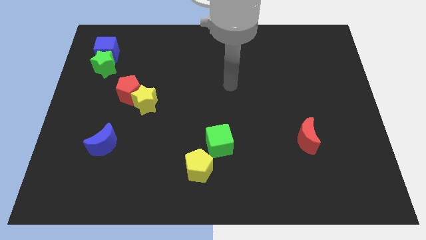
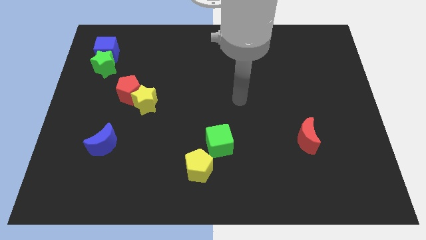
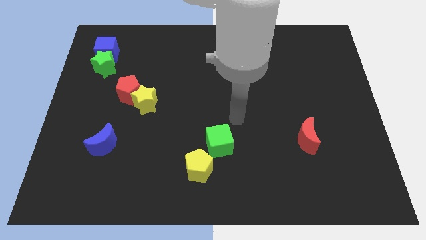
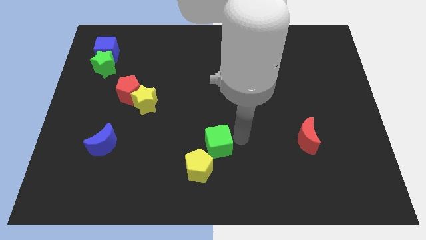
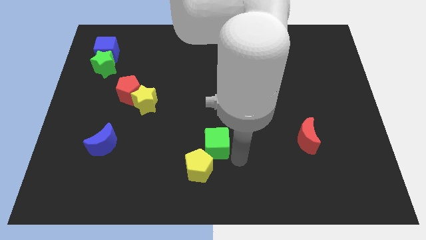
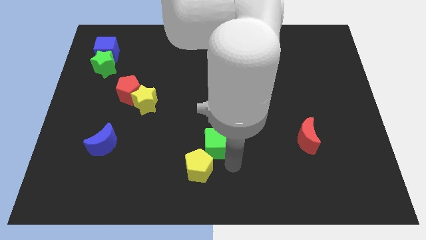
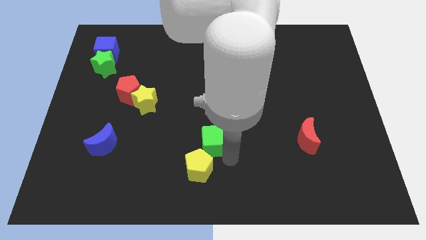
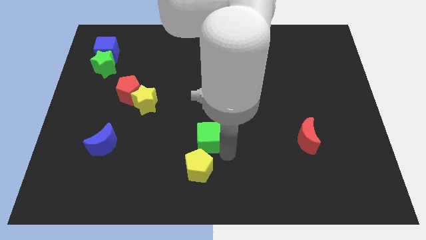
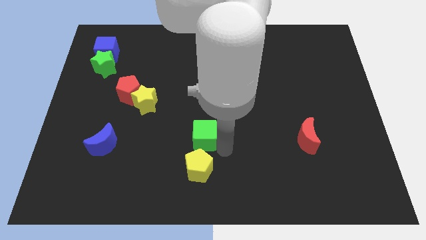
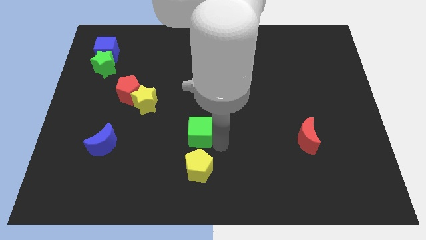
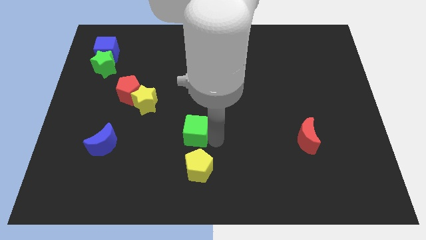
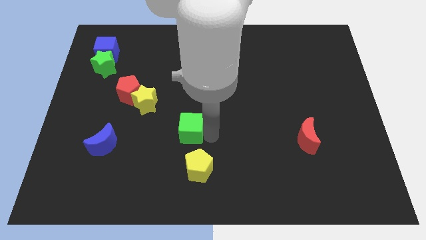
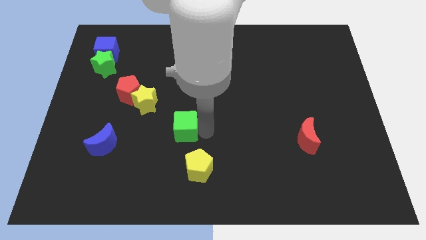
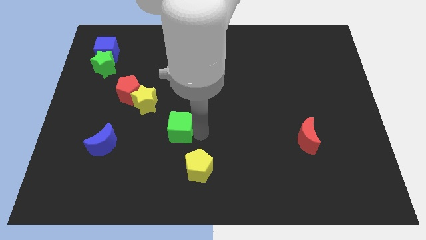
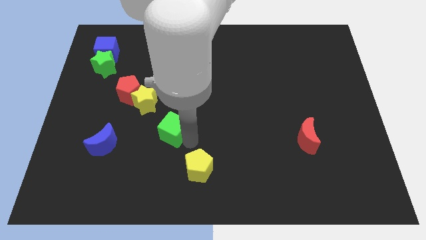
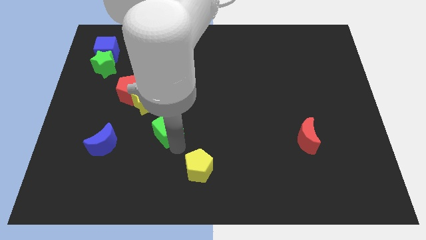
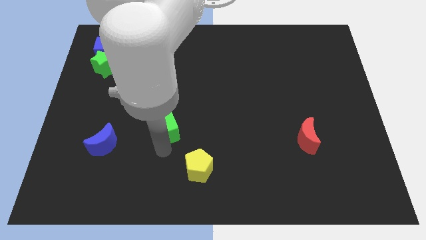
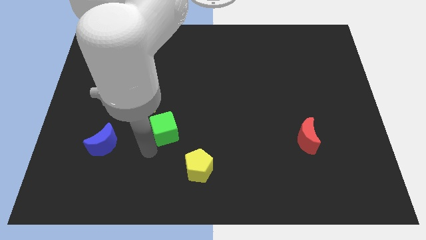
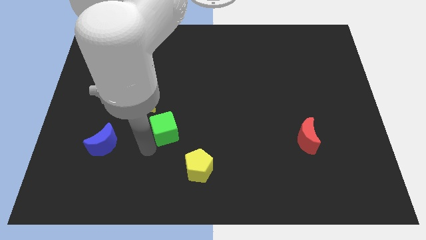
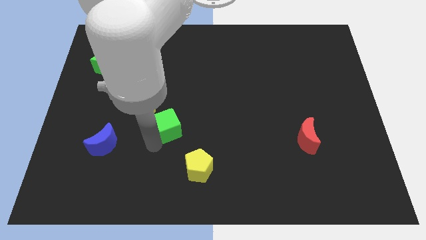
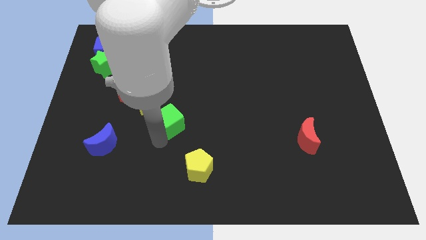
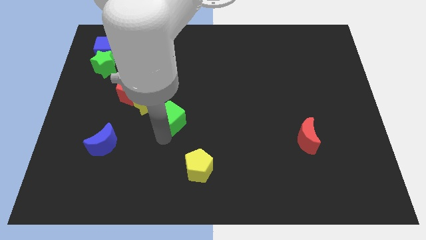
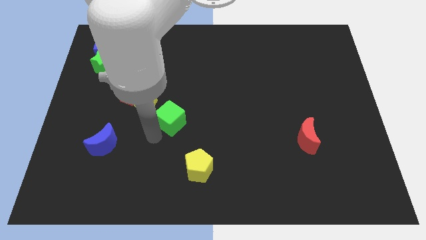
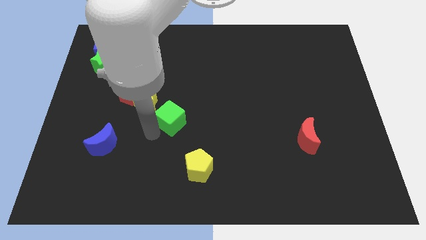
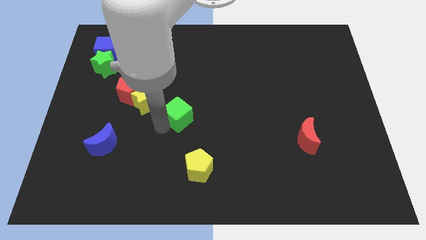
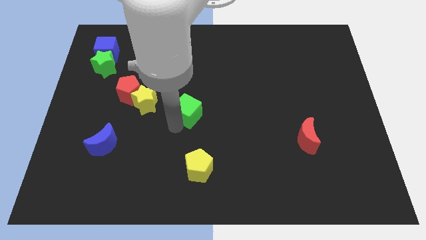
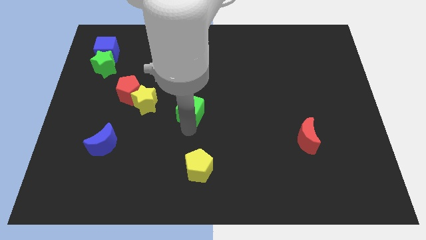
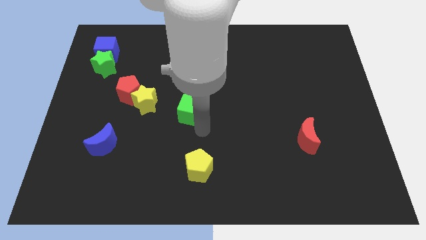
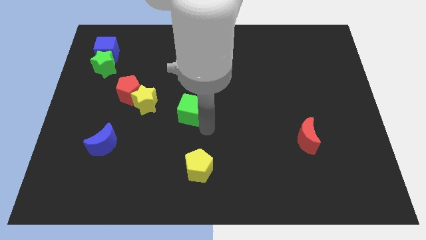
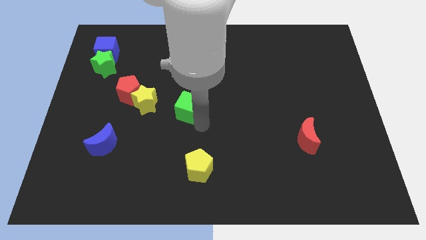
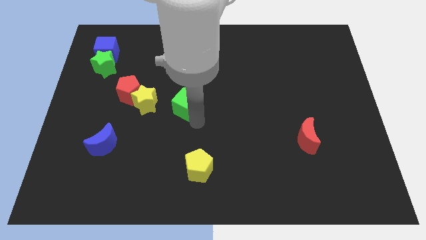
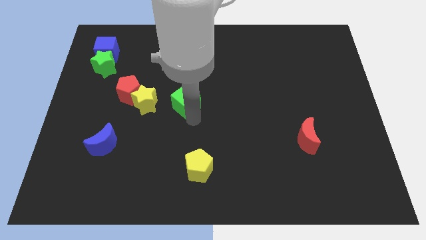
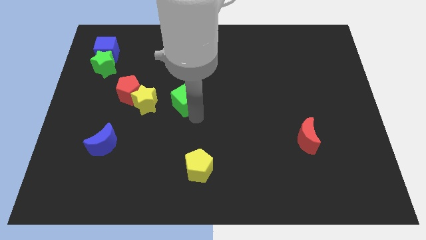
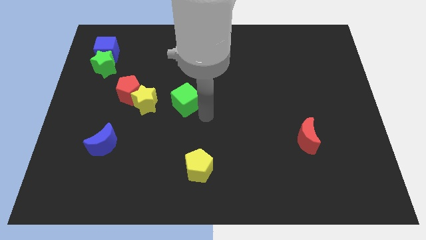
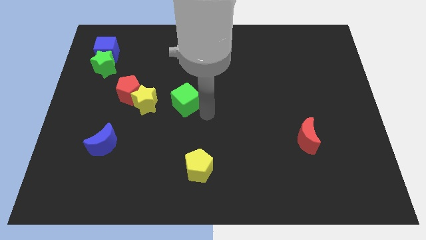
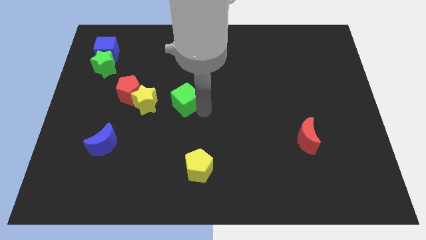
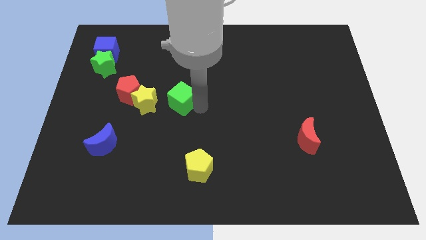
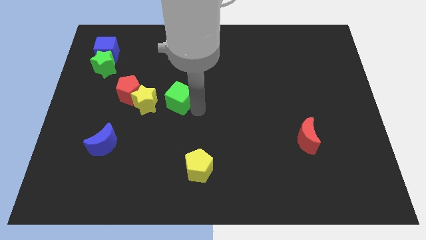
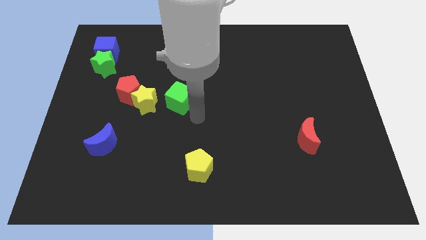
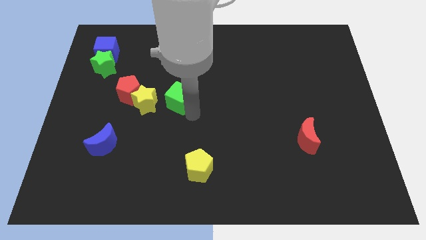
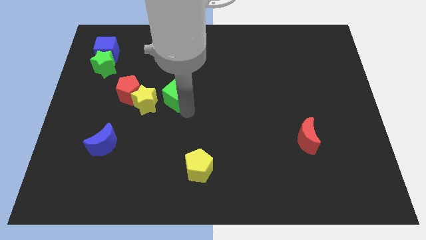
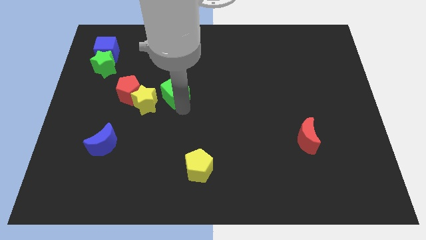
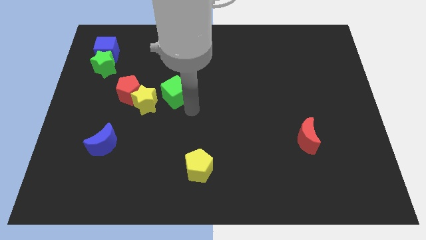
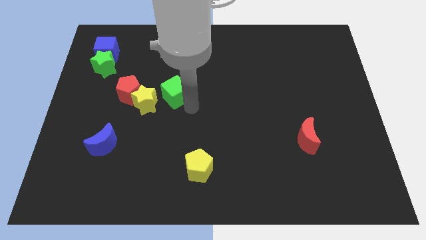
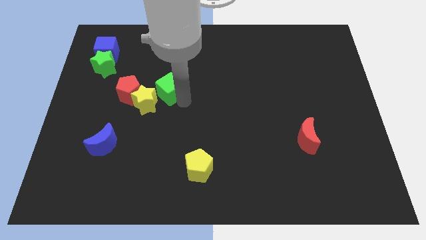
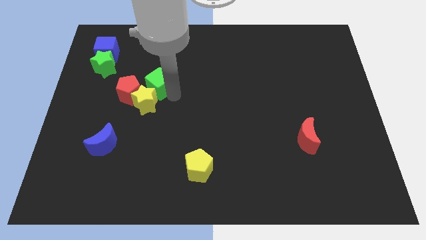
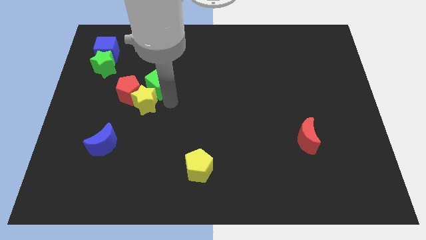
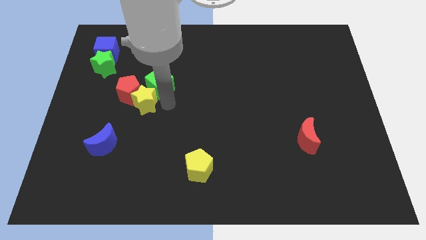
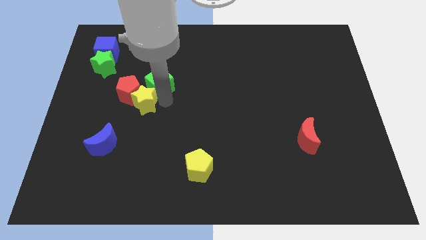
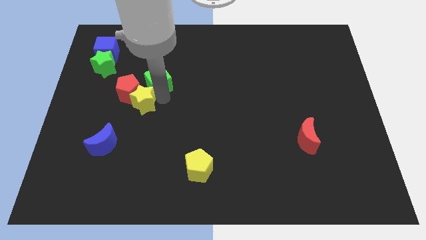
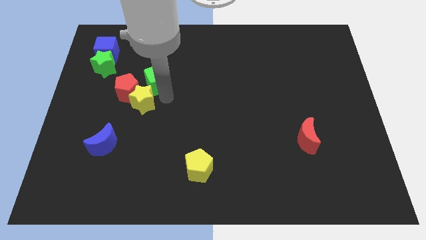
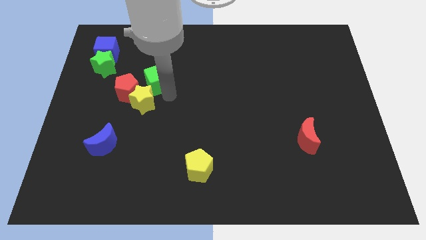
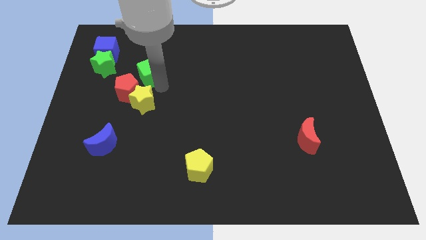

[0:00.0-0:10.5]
move the green cube right of the green star

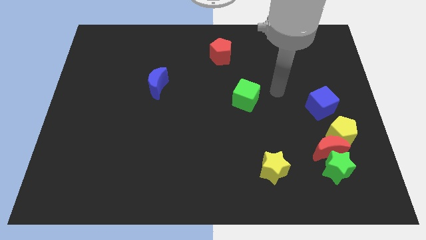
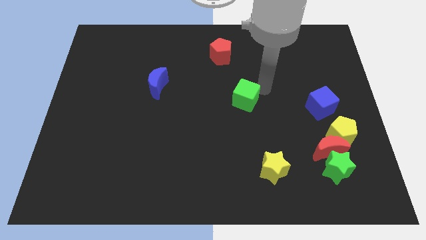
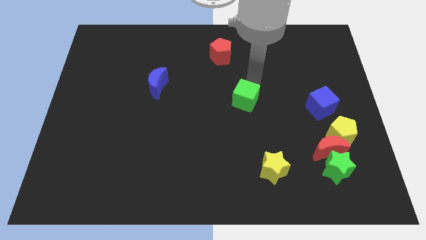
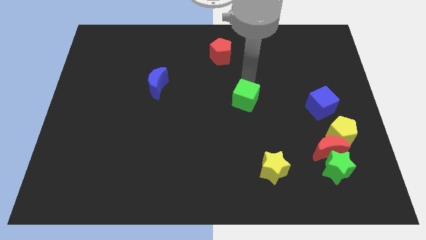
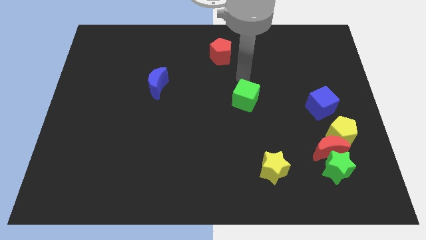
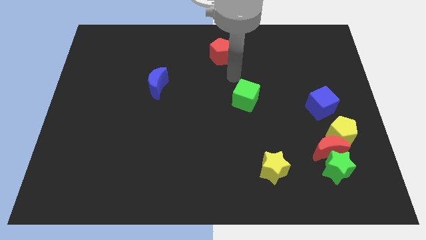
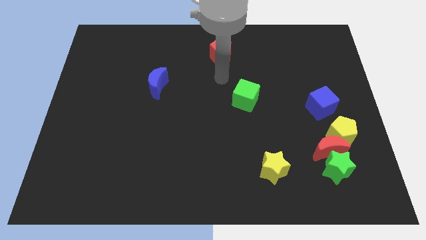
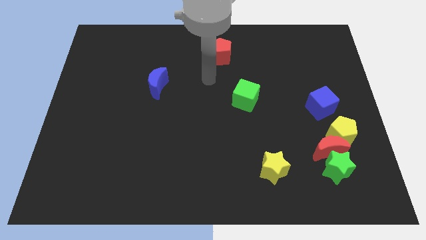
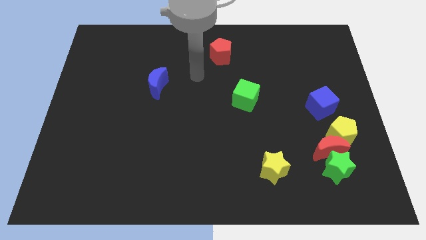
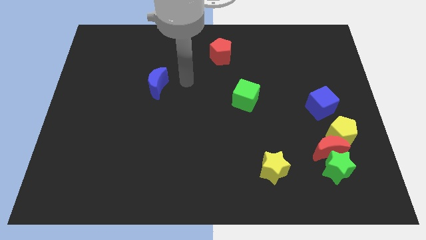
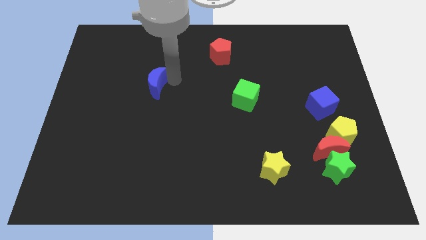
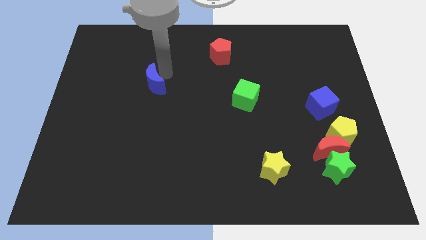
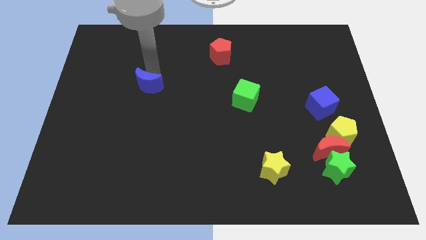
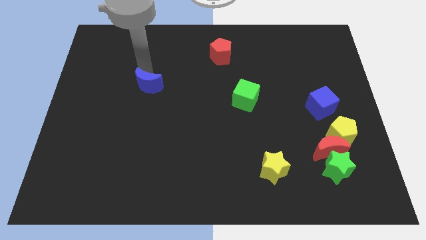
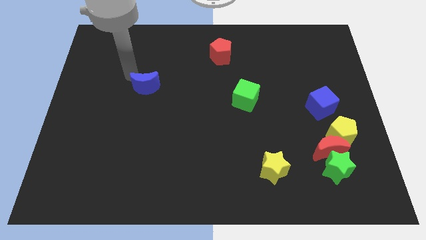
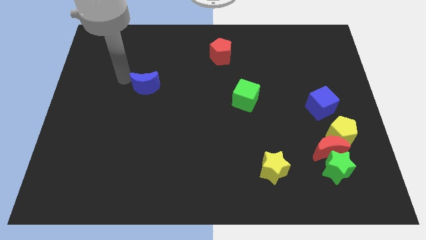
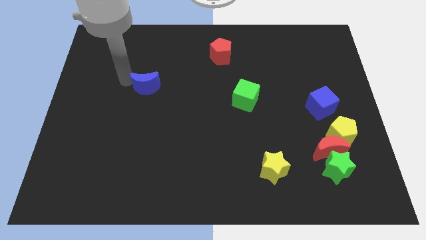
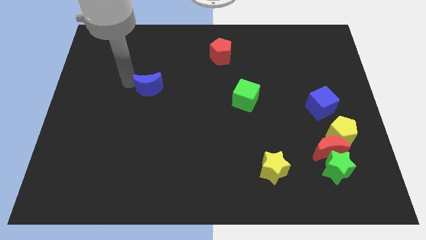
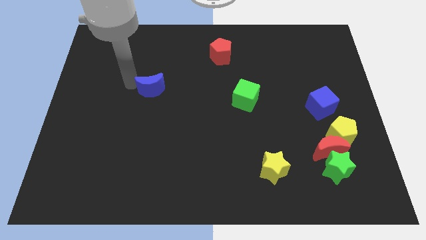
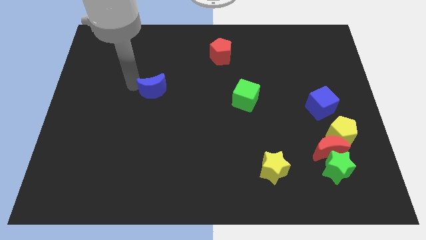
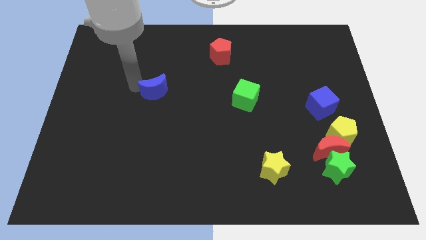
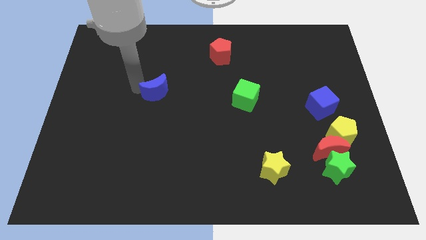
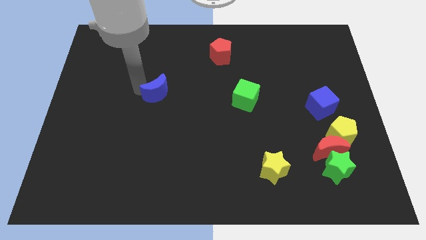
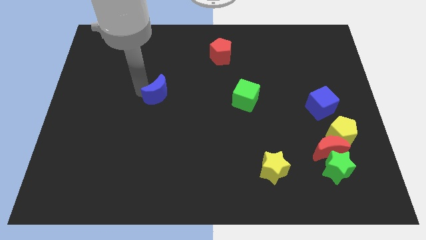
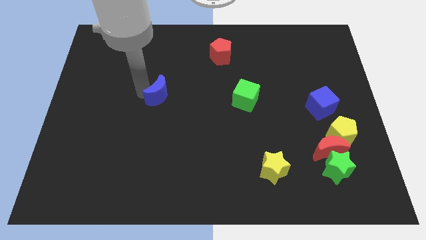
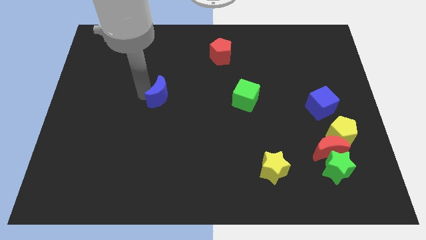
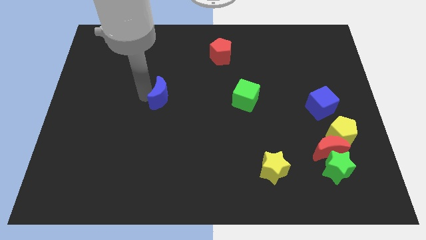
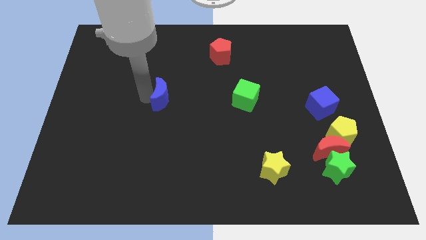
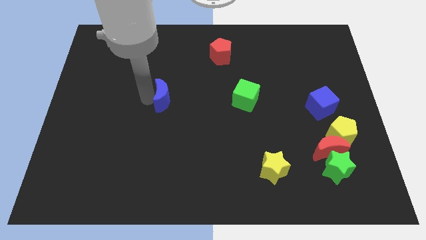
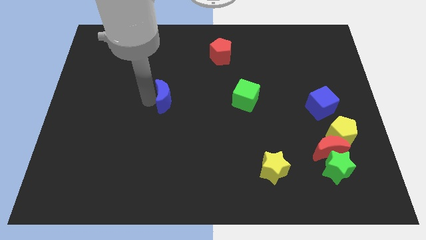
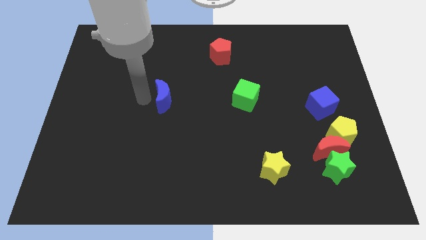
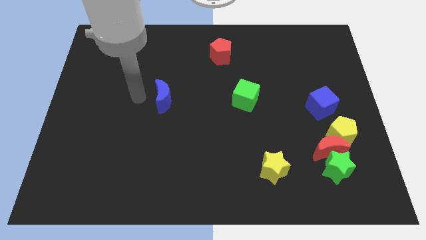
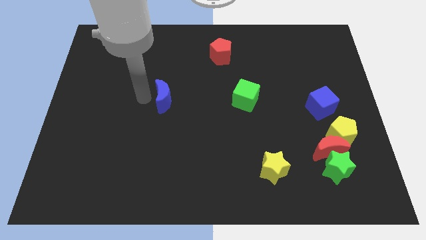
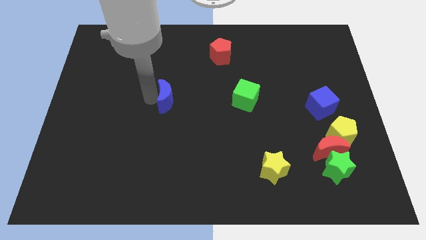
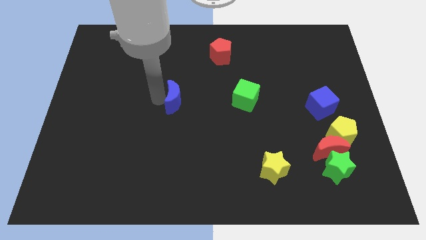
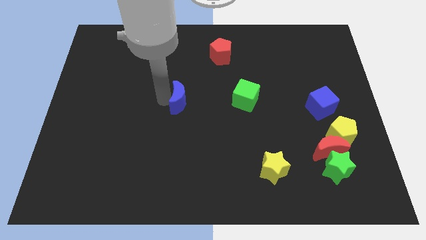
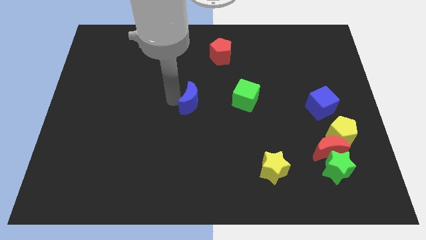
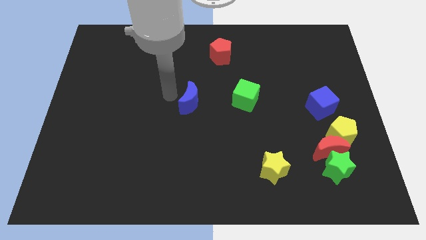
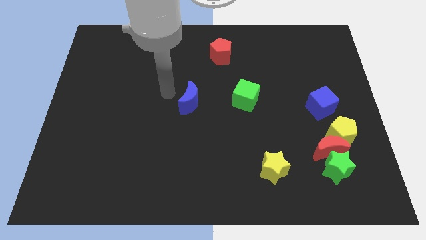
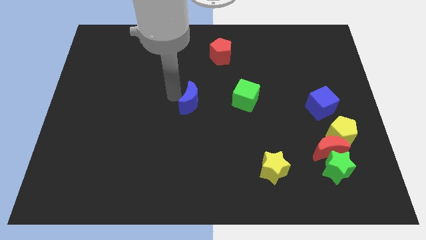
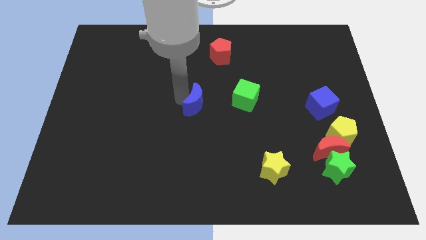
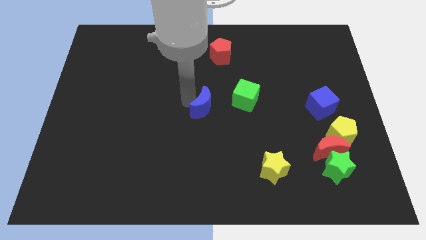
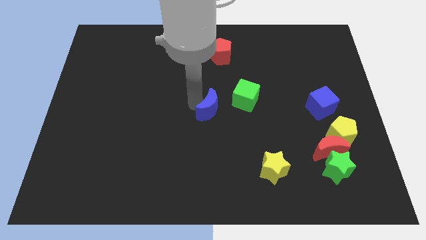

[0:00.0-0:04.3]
move the blue moon diagonally down and to the left of the green cube
